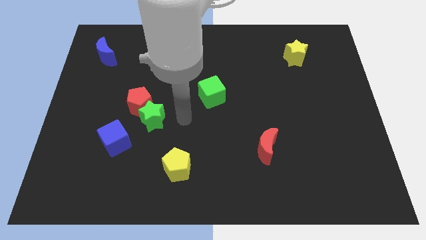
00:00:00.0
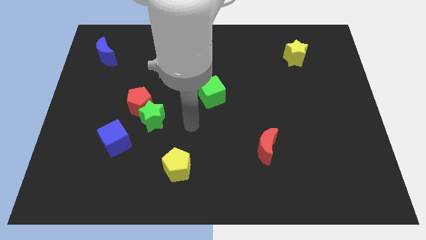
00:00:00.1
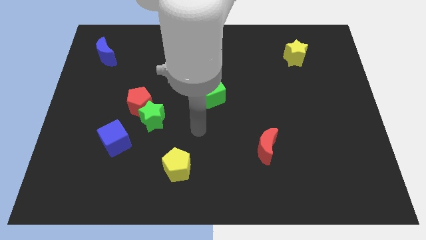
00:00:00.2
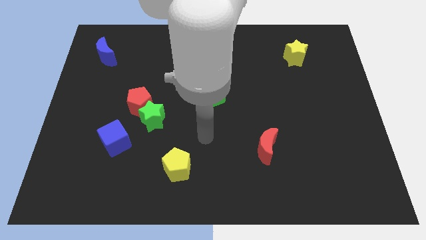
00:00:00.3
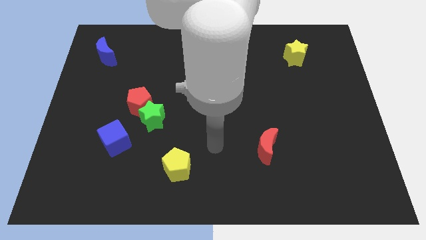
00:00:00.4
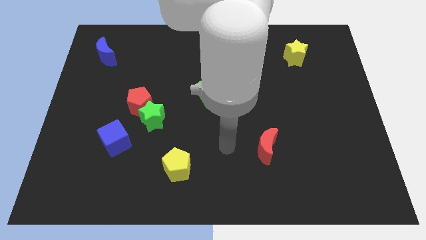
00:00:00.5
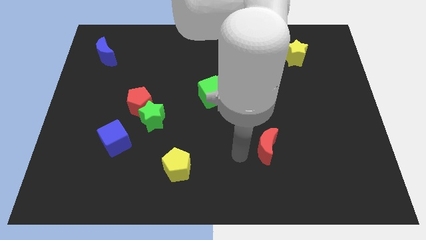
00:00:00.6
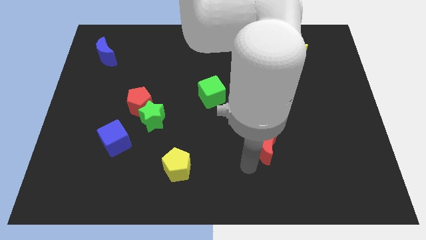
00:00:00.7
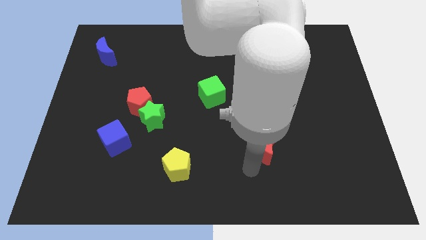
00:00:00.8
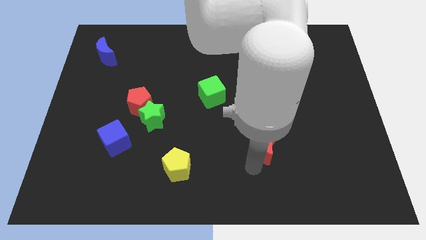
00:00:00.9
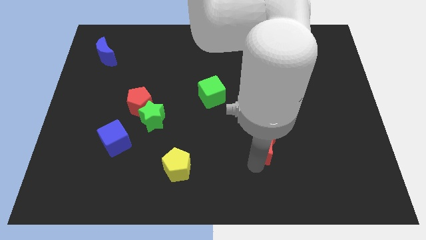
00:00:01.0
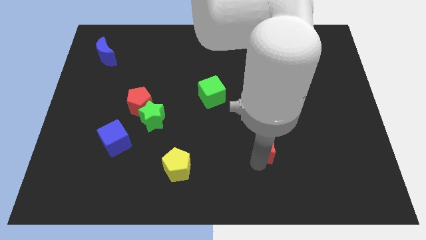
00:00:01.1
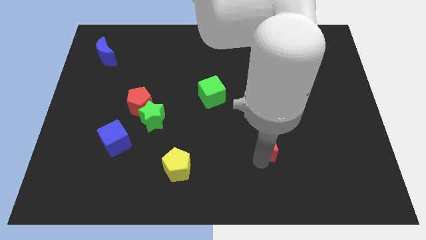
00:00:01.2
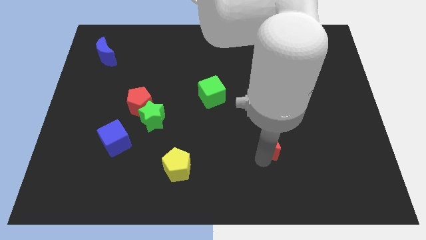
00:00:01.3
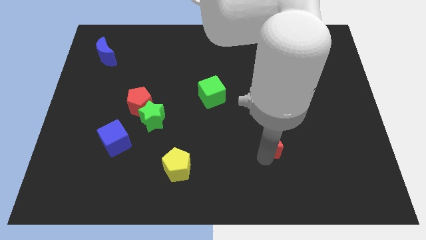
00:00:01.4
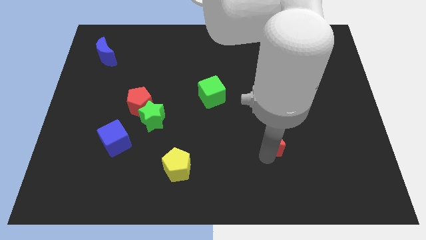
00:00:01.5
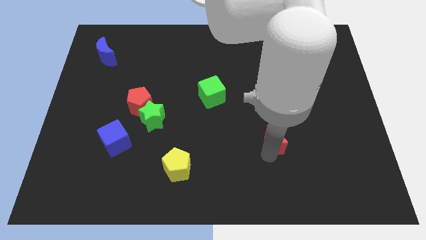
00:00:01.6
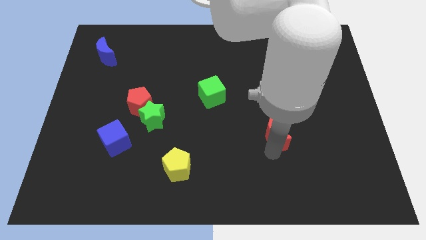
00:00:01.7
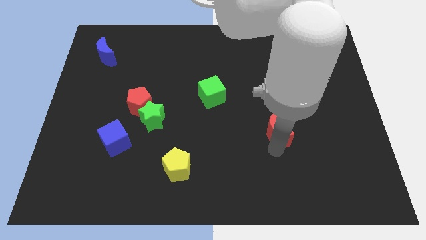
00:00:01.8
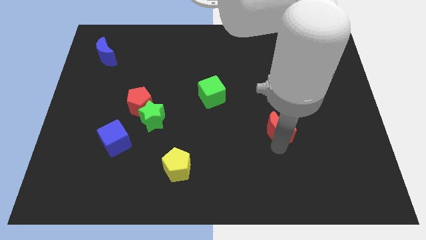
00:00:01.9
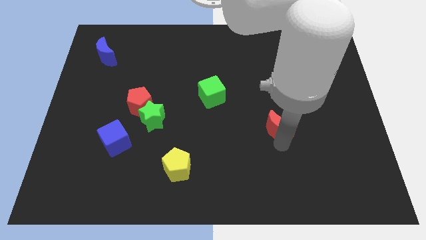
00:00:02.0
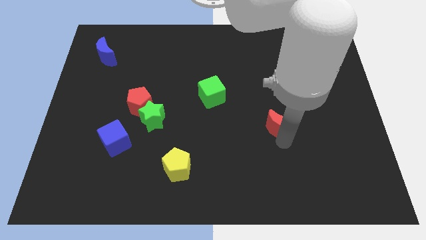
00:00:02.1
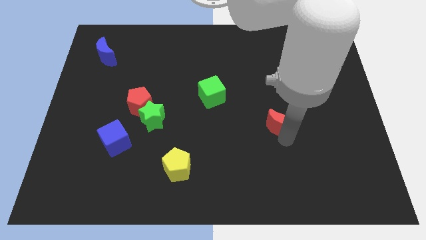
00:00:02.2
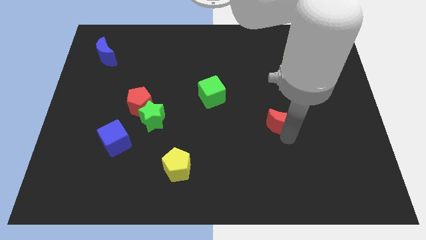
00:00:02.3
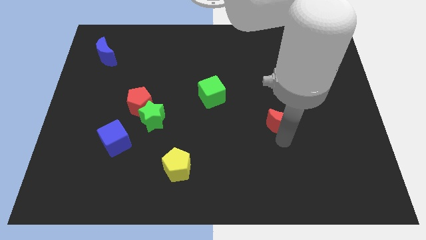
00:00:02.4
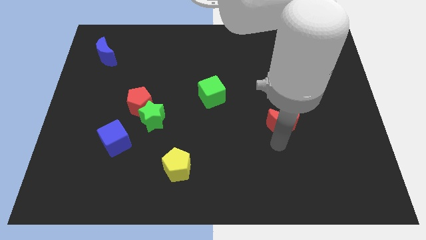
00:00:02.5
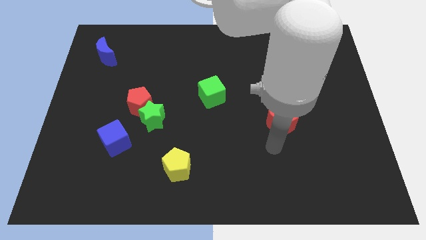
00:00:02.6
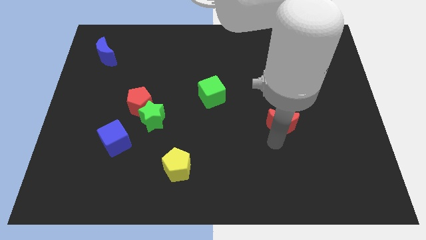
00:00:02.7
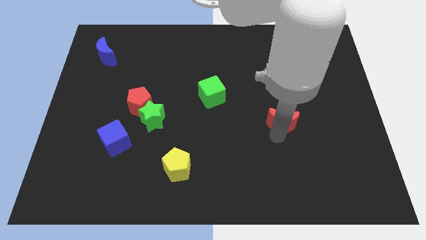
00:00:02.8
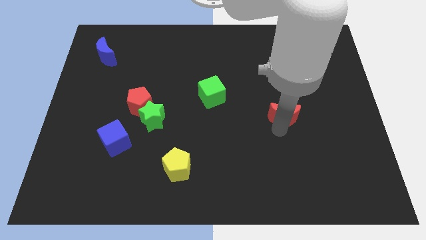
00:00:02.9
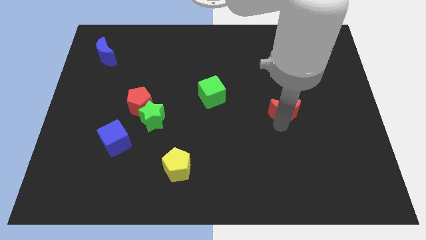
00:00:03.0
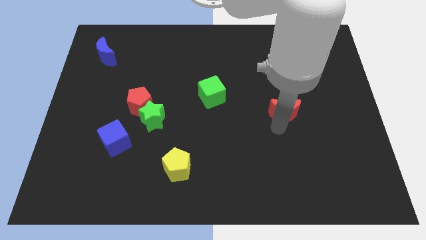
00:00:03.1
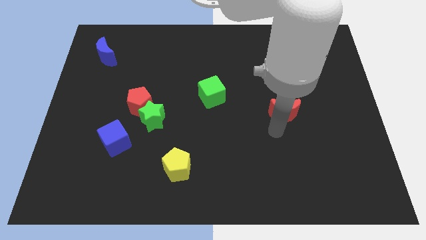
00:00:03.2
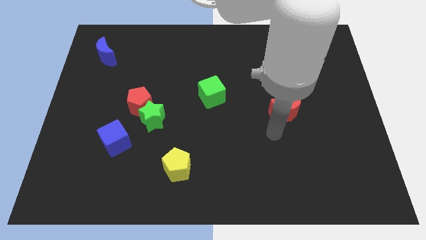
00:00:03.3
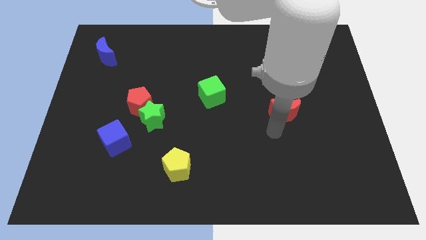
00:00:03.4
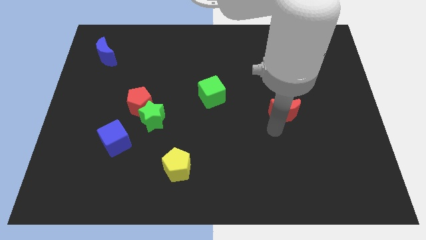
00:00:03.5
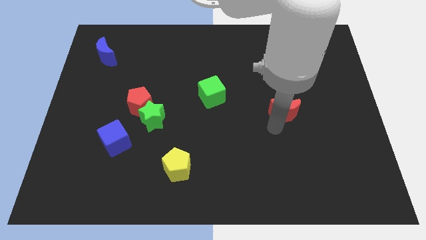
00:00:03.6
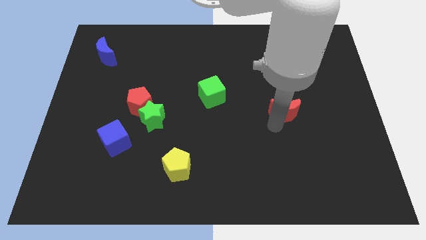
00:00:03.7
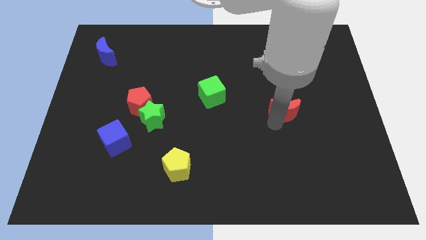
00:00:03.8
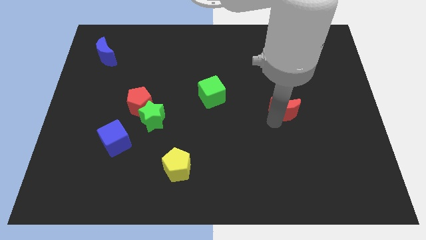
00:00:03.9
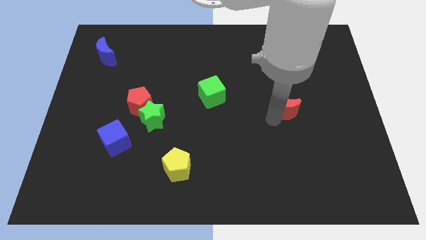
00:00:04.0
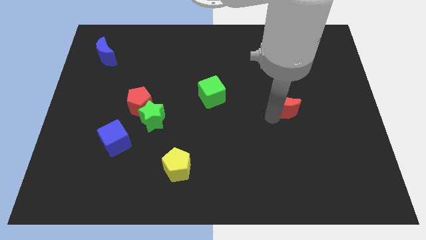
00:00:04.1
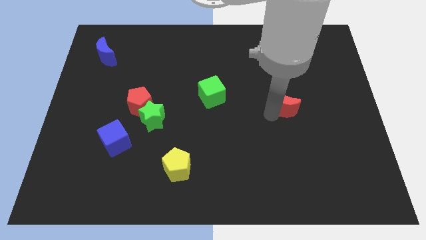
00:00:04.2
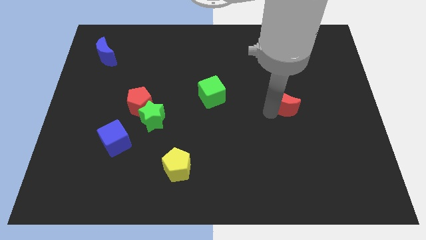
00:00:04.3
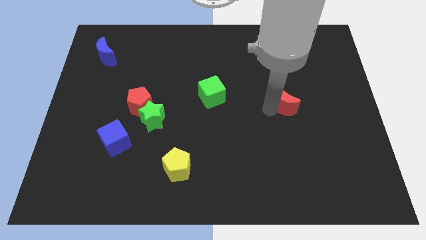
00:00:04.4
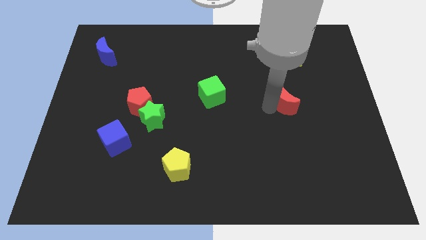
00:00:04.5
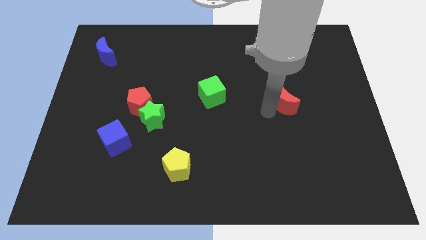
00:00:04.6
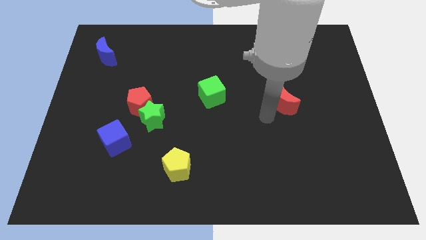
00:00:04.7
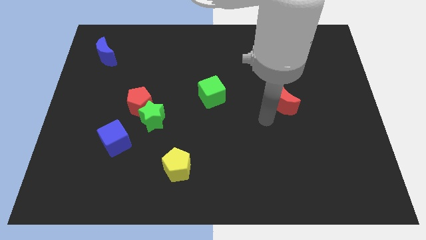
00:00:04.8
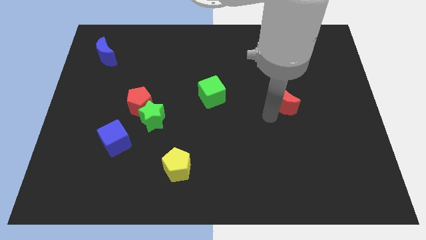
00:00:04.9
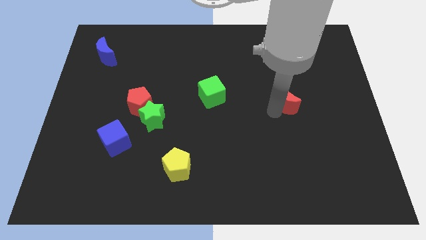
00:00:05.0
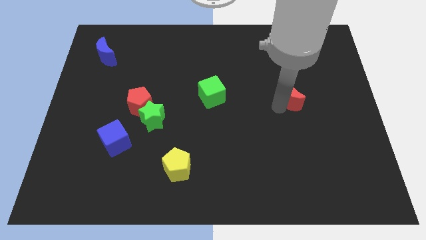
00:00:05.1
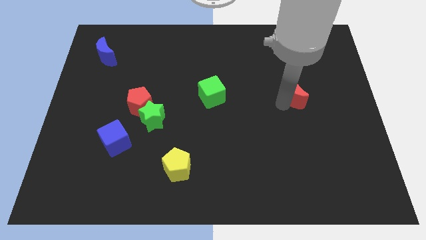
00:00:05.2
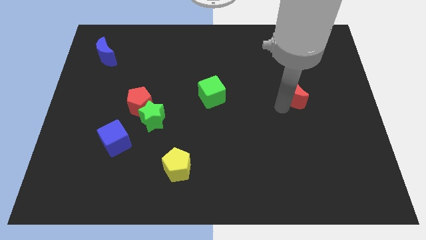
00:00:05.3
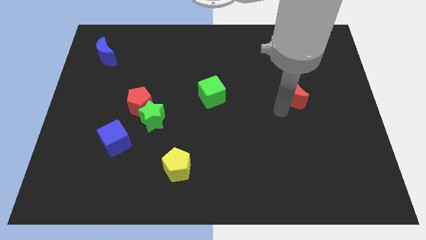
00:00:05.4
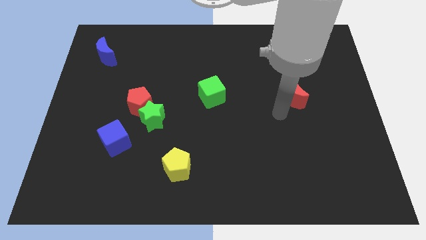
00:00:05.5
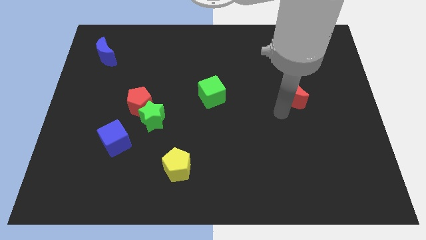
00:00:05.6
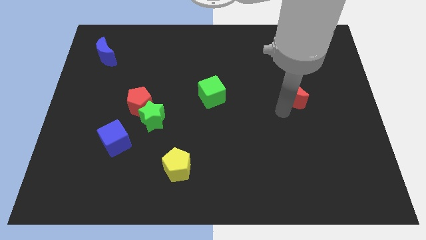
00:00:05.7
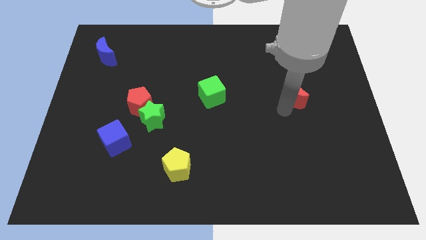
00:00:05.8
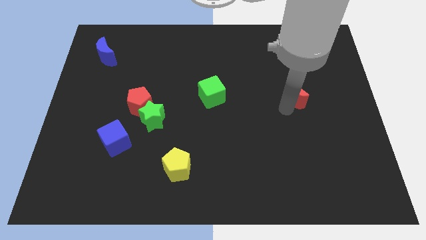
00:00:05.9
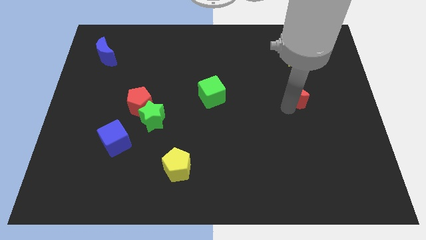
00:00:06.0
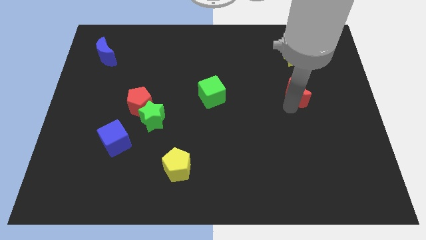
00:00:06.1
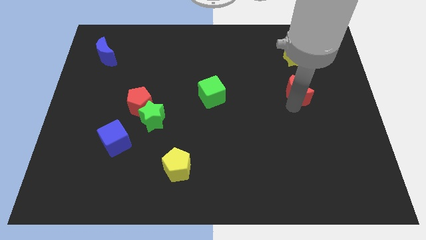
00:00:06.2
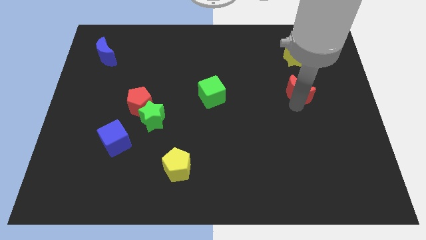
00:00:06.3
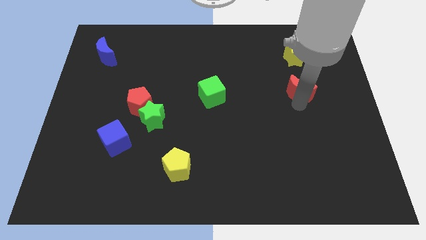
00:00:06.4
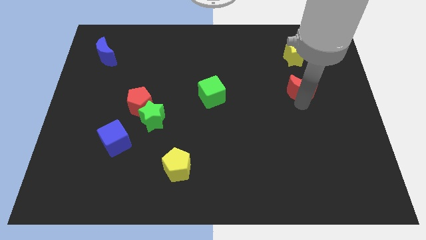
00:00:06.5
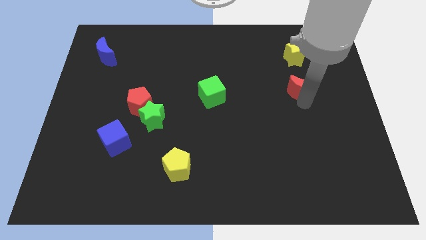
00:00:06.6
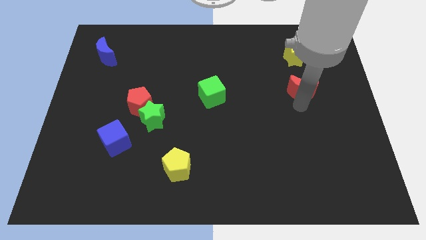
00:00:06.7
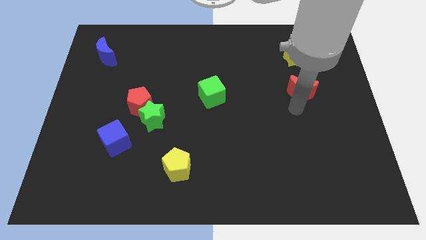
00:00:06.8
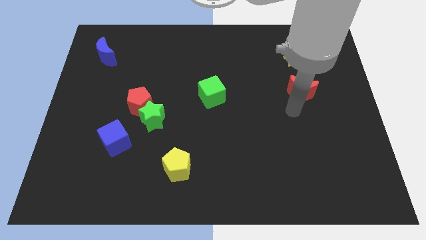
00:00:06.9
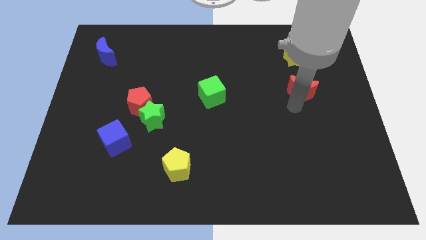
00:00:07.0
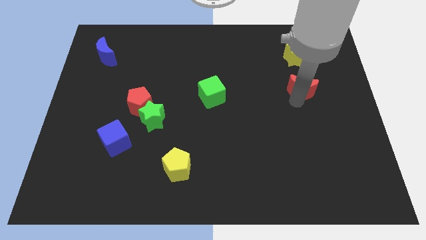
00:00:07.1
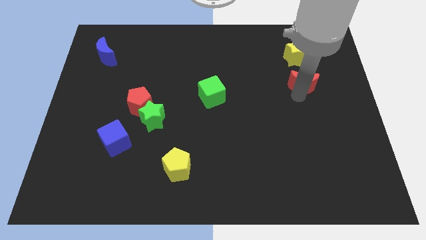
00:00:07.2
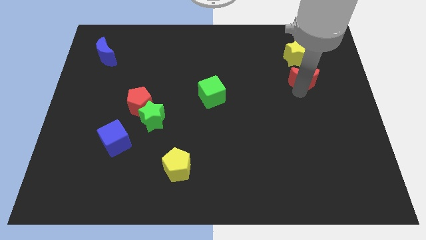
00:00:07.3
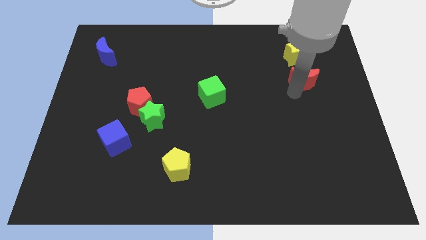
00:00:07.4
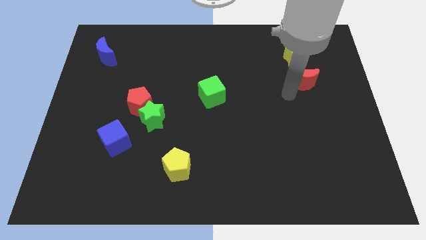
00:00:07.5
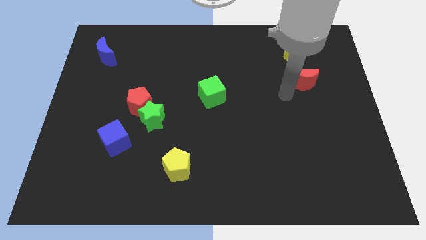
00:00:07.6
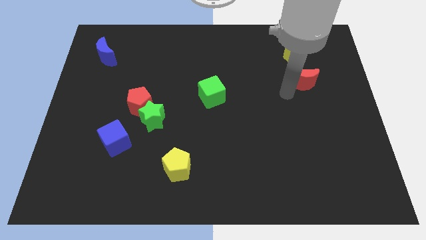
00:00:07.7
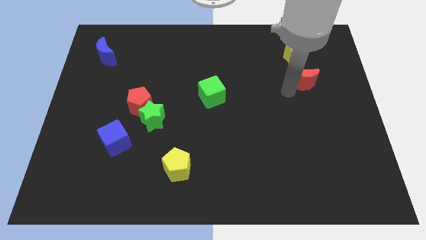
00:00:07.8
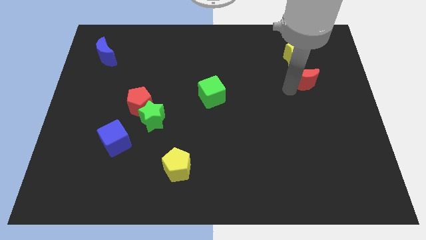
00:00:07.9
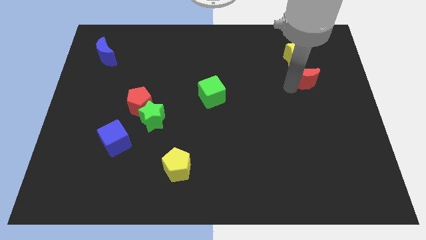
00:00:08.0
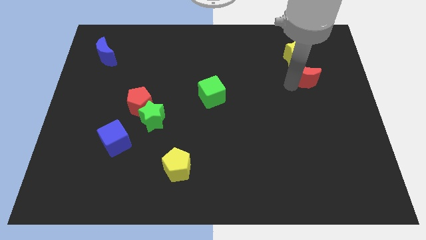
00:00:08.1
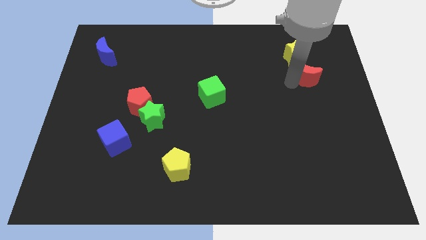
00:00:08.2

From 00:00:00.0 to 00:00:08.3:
move the red moon diagonally down and to the right of the yellow star
